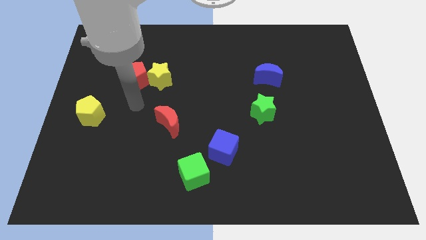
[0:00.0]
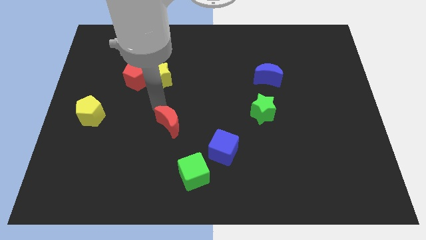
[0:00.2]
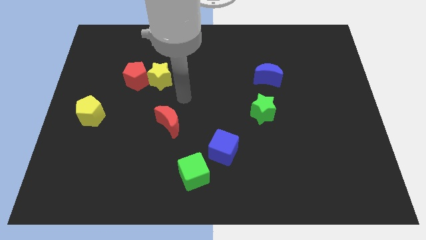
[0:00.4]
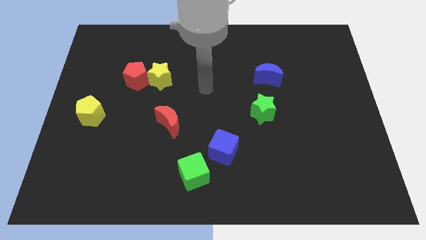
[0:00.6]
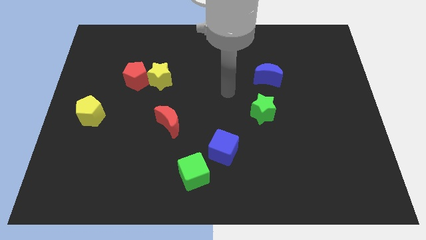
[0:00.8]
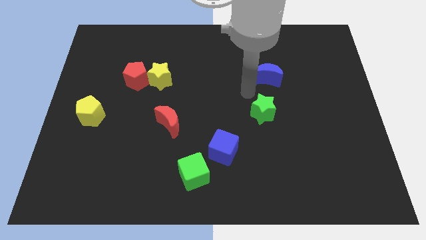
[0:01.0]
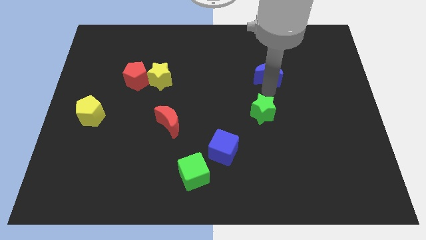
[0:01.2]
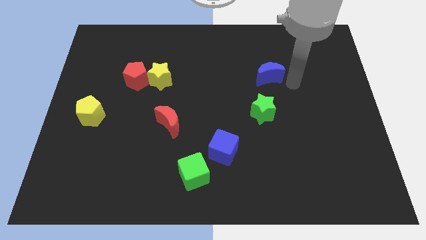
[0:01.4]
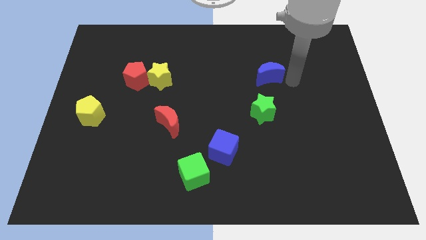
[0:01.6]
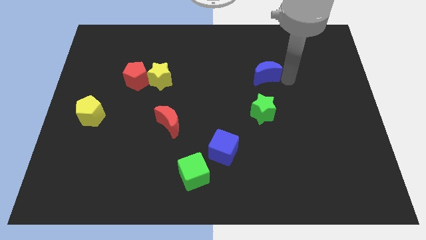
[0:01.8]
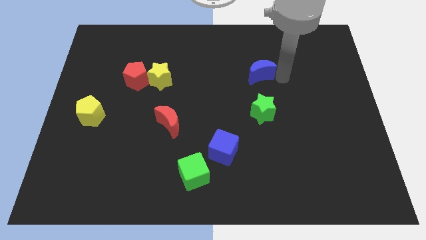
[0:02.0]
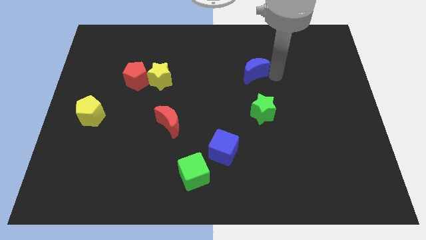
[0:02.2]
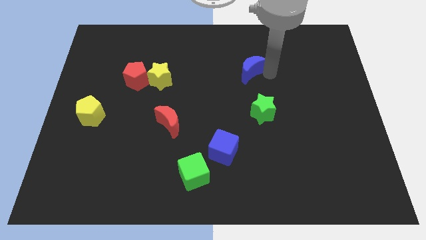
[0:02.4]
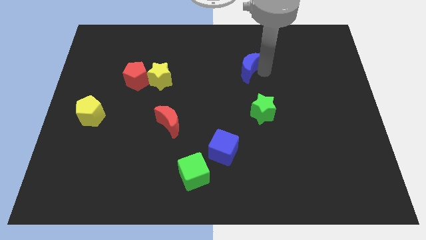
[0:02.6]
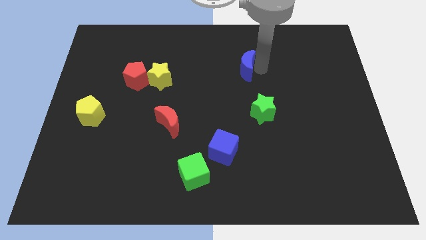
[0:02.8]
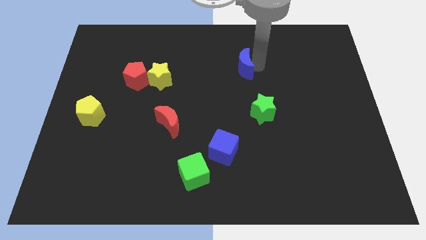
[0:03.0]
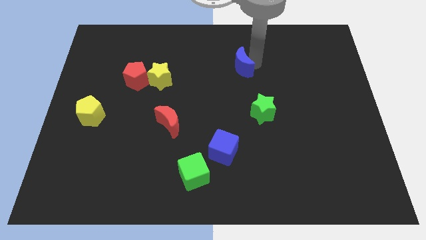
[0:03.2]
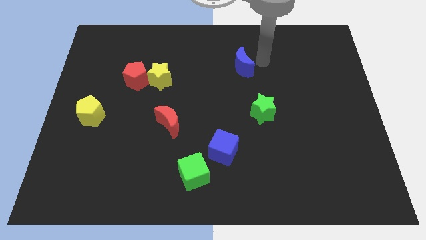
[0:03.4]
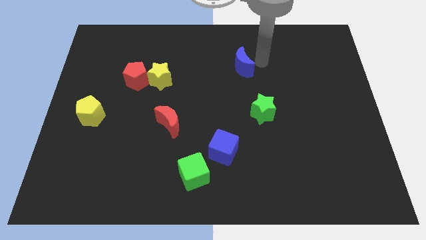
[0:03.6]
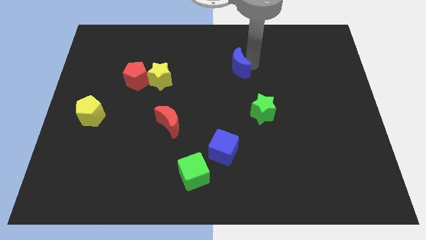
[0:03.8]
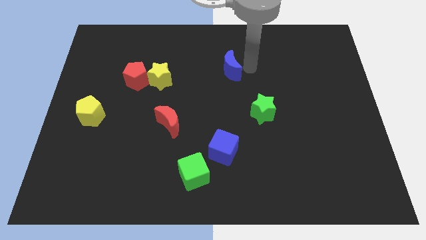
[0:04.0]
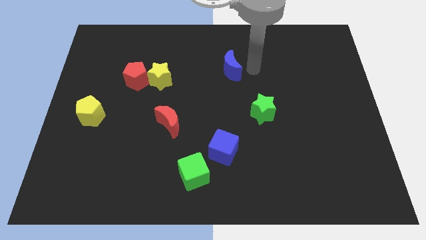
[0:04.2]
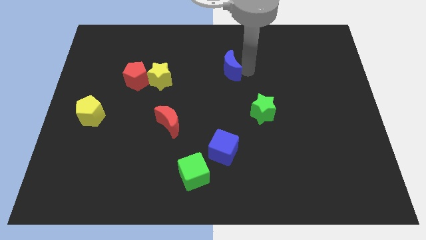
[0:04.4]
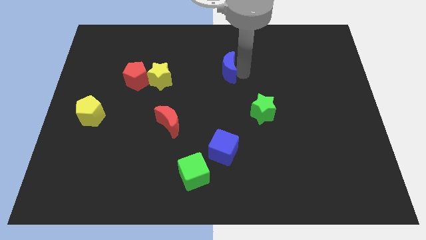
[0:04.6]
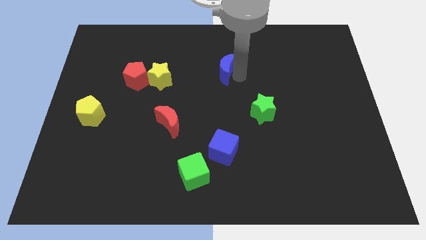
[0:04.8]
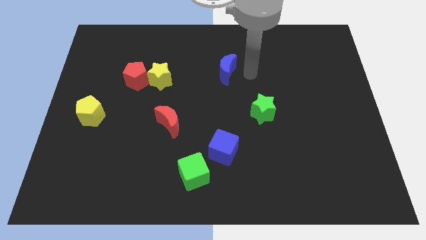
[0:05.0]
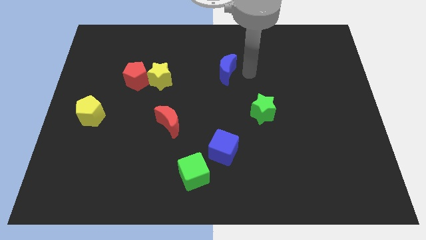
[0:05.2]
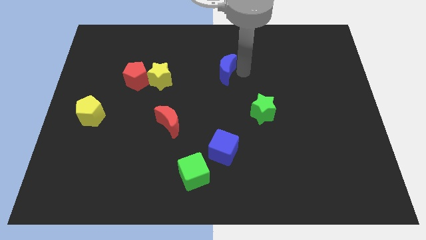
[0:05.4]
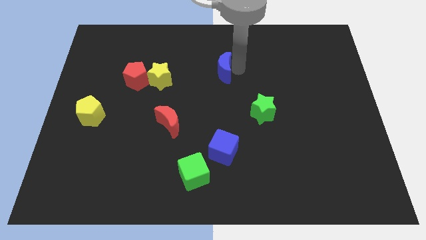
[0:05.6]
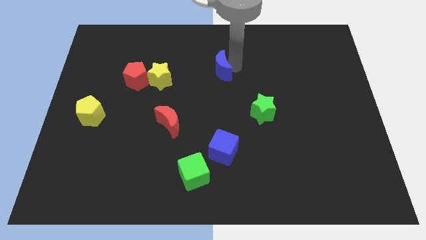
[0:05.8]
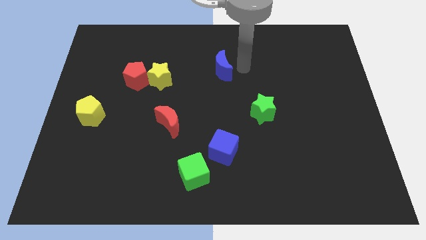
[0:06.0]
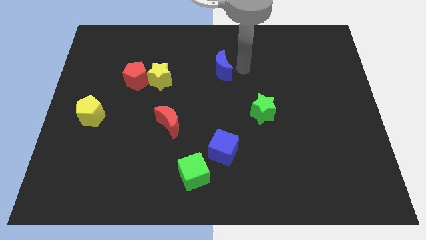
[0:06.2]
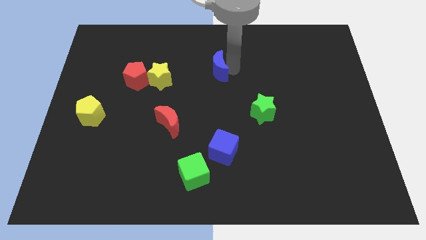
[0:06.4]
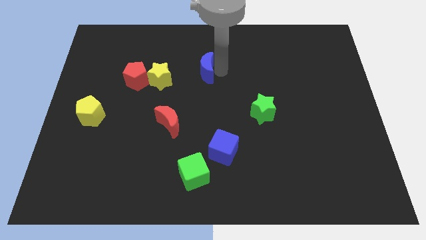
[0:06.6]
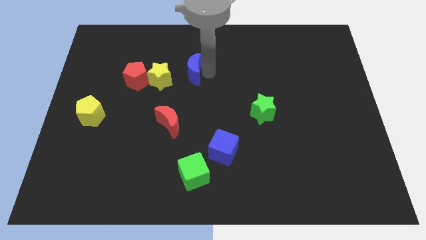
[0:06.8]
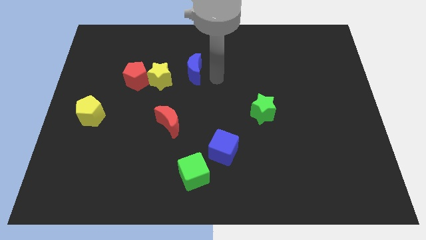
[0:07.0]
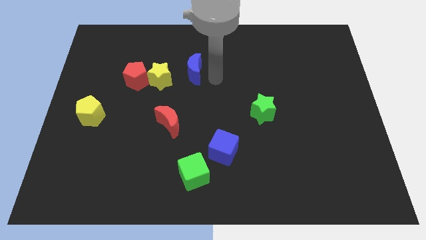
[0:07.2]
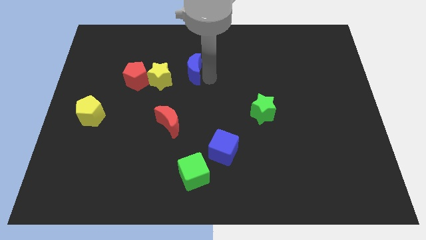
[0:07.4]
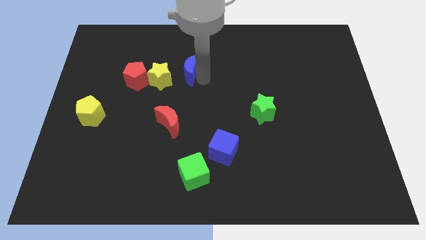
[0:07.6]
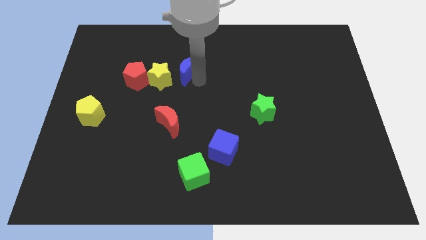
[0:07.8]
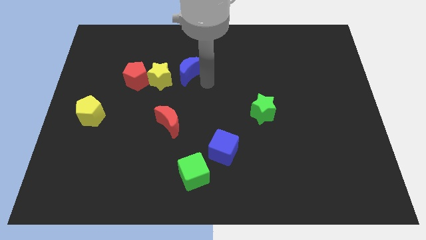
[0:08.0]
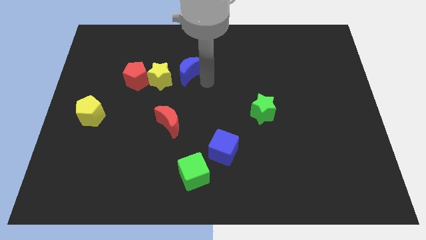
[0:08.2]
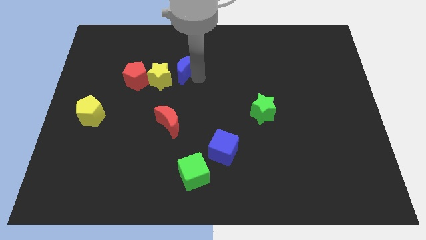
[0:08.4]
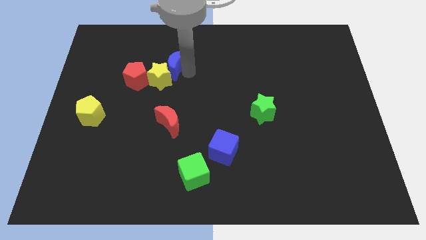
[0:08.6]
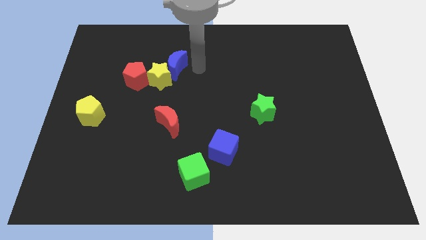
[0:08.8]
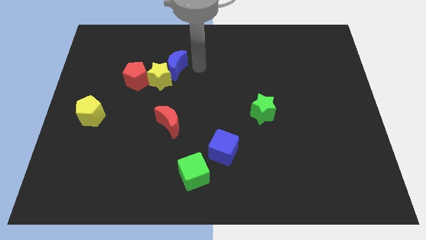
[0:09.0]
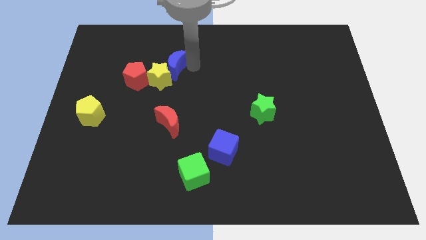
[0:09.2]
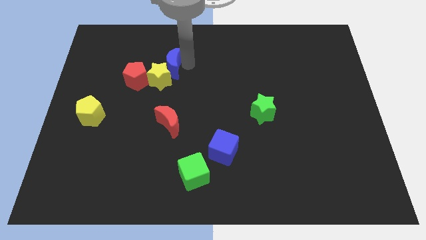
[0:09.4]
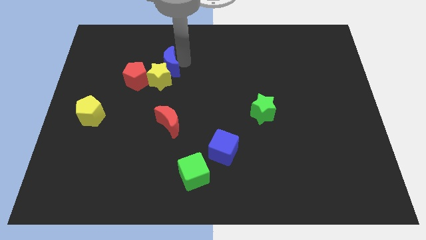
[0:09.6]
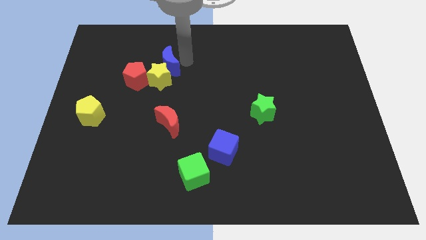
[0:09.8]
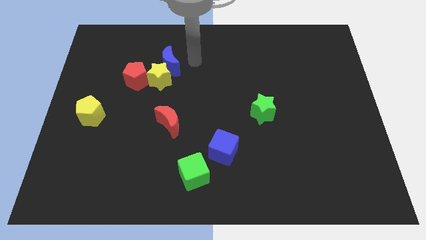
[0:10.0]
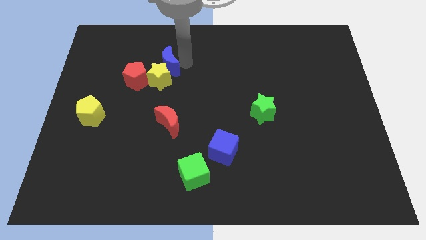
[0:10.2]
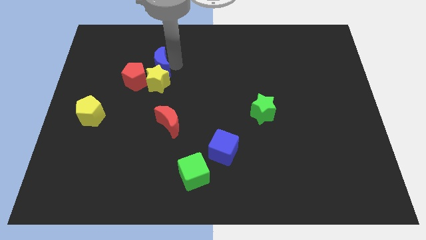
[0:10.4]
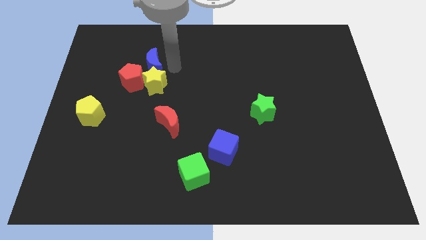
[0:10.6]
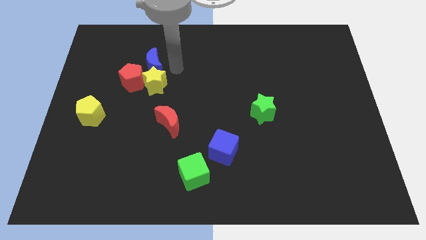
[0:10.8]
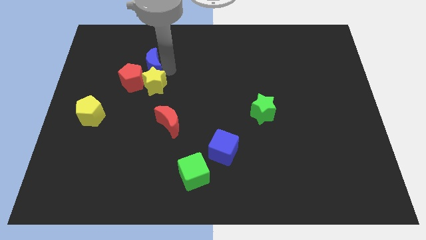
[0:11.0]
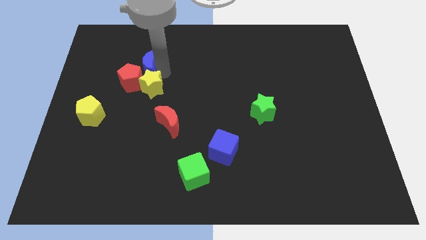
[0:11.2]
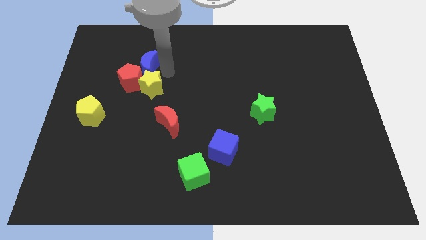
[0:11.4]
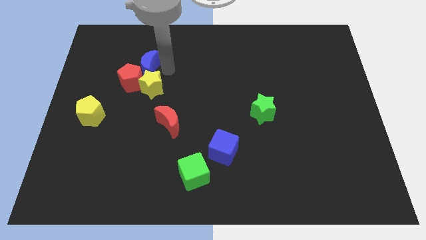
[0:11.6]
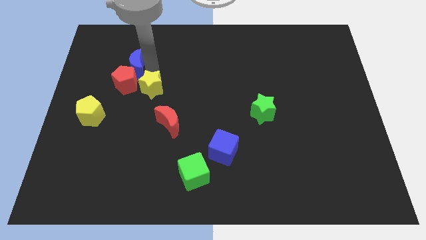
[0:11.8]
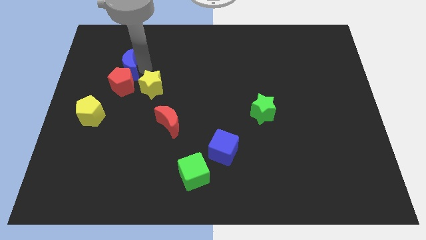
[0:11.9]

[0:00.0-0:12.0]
push the blue moon to the top left of the red pentagon
